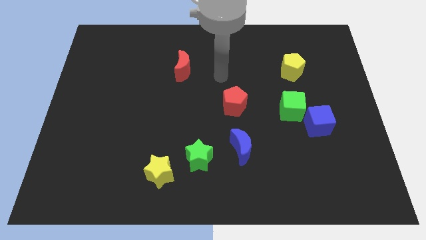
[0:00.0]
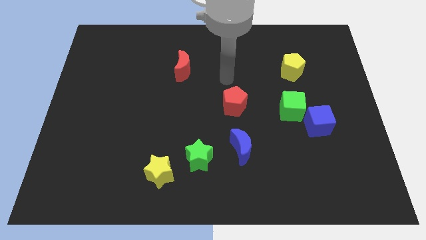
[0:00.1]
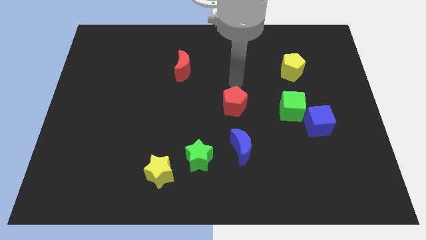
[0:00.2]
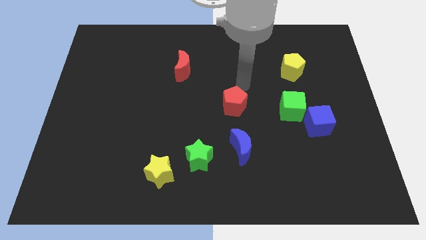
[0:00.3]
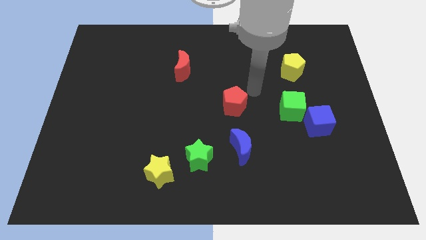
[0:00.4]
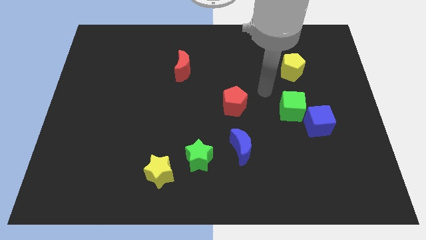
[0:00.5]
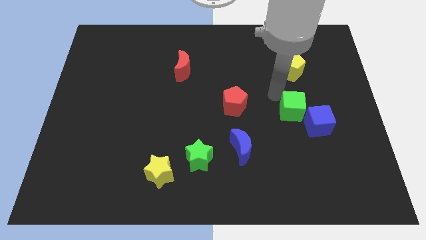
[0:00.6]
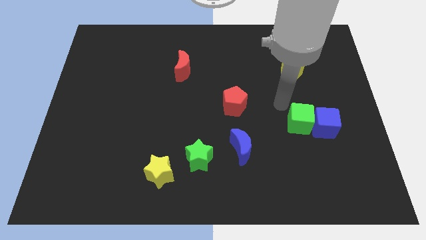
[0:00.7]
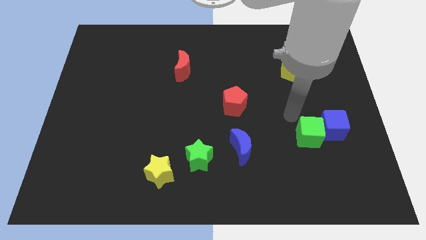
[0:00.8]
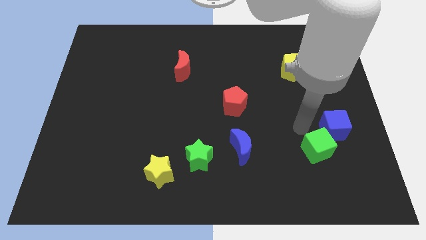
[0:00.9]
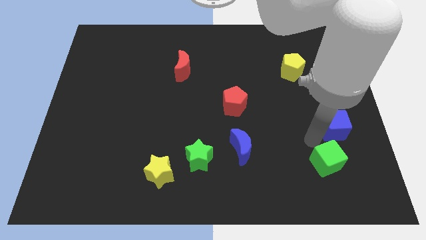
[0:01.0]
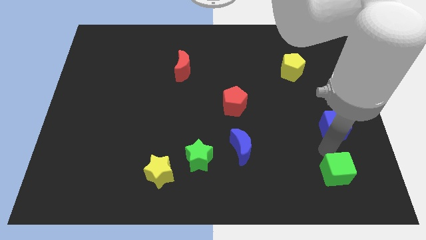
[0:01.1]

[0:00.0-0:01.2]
separate the blue cube from the green cube

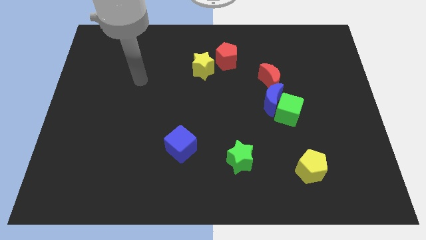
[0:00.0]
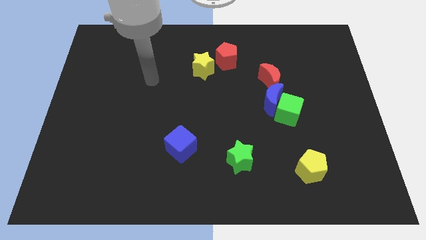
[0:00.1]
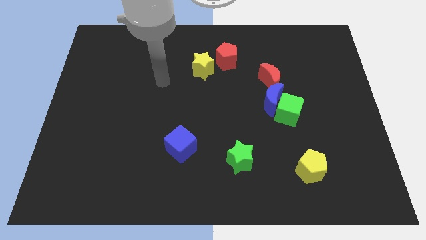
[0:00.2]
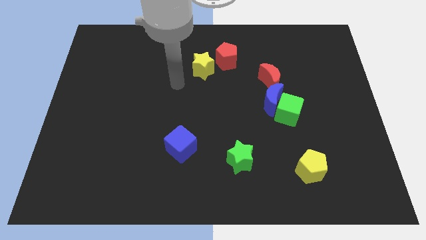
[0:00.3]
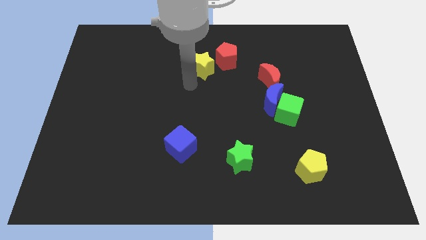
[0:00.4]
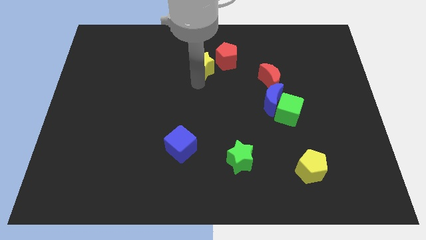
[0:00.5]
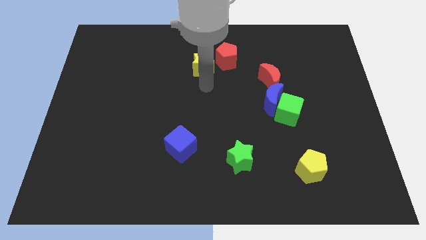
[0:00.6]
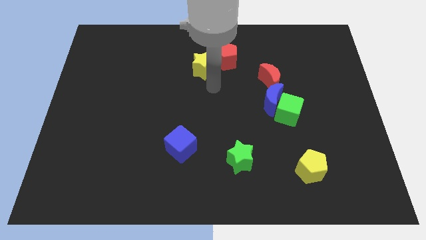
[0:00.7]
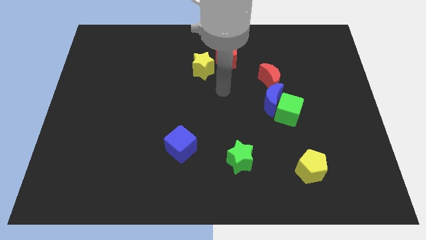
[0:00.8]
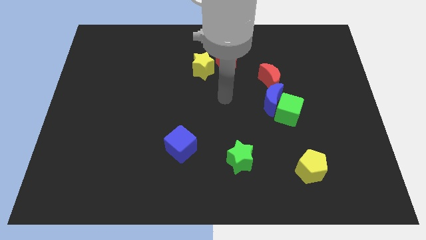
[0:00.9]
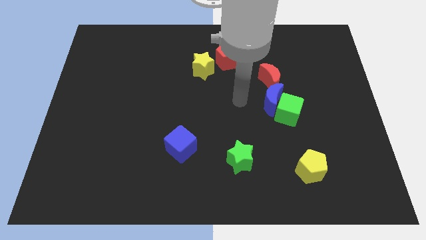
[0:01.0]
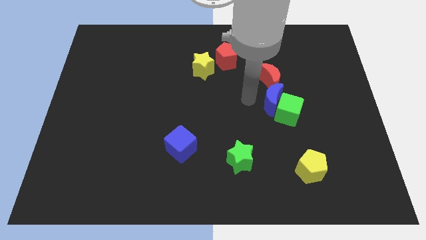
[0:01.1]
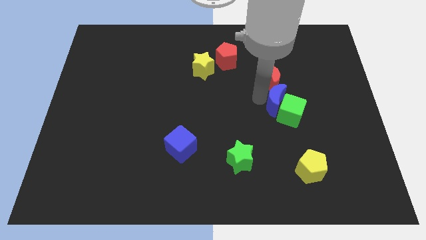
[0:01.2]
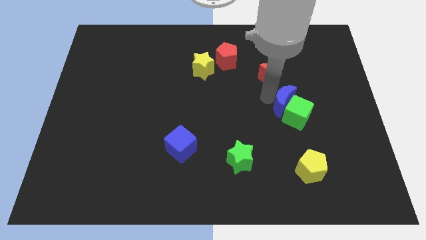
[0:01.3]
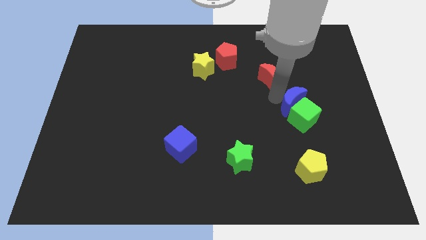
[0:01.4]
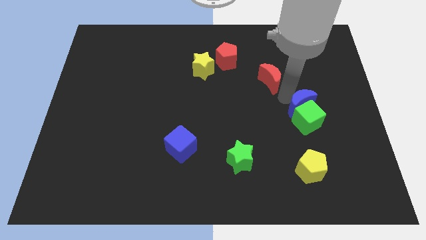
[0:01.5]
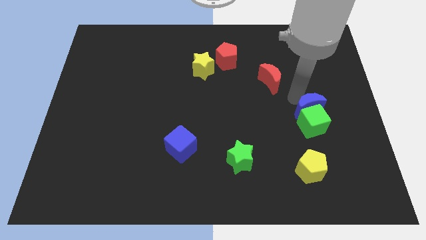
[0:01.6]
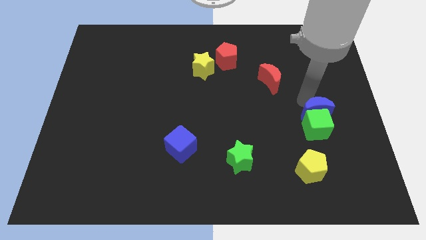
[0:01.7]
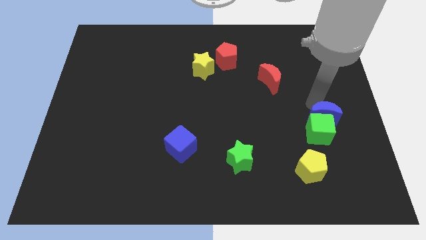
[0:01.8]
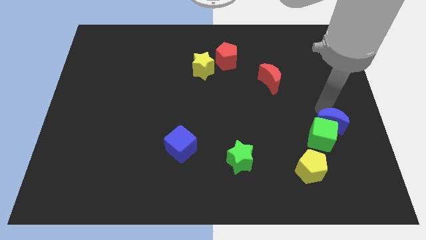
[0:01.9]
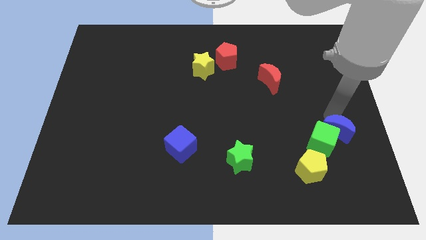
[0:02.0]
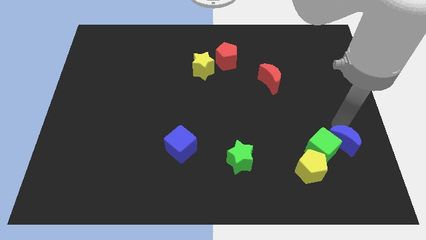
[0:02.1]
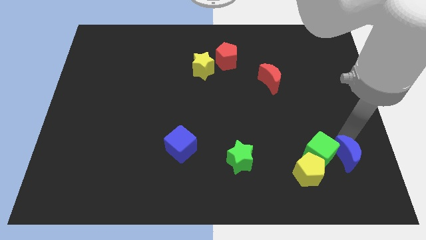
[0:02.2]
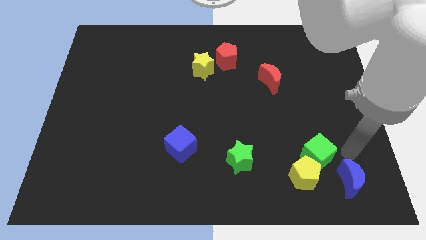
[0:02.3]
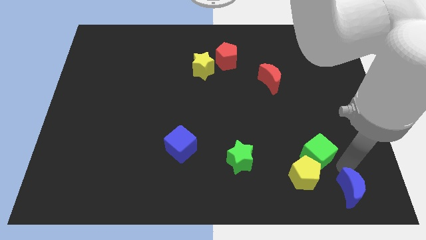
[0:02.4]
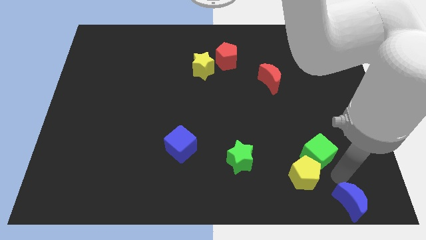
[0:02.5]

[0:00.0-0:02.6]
separate the green cube from the blue moon

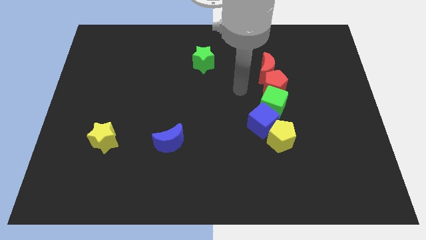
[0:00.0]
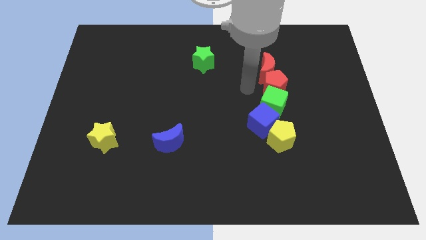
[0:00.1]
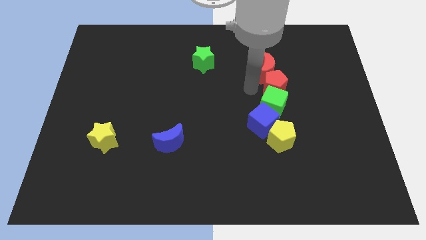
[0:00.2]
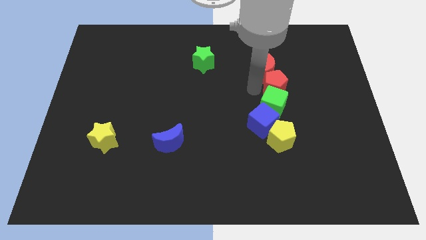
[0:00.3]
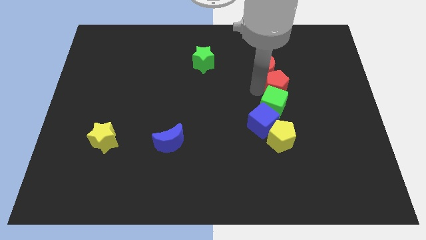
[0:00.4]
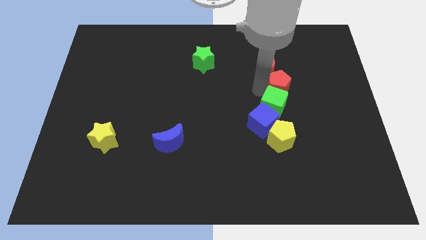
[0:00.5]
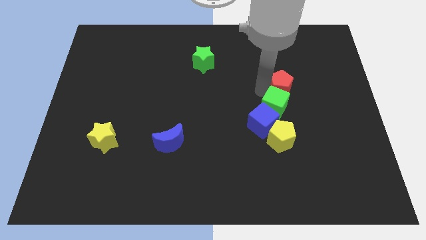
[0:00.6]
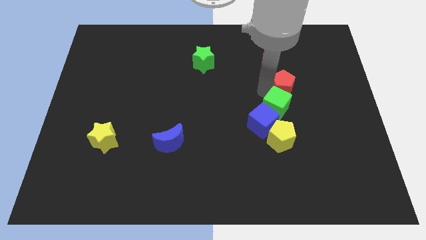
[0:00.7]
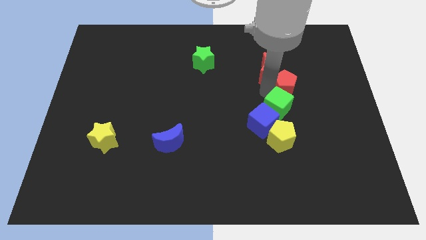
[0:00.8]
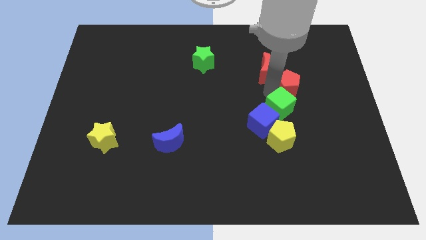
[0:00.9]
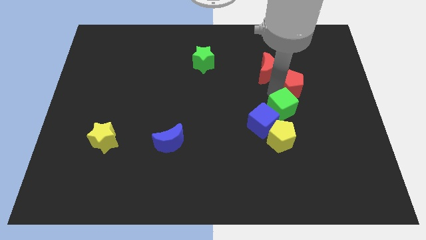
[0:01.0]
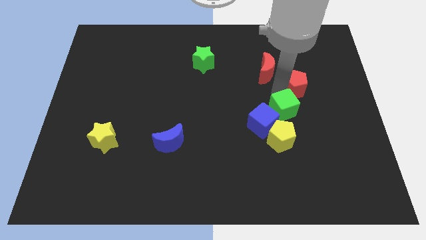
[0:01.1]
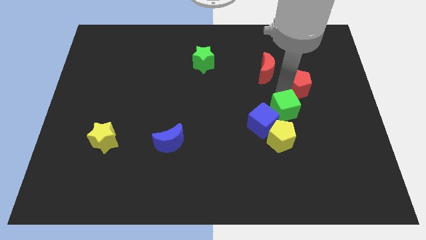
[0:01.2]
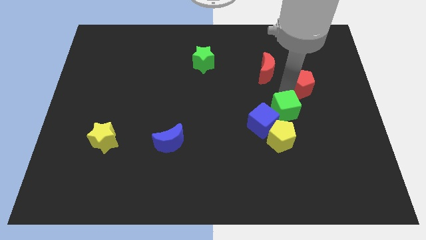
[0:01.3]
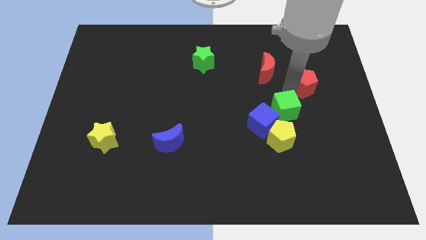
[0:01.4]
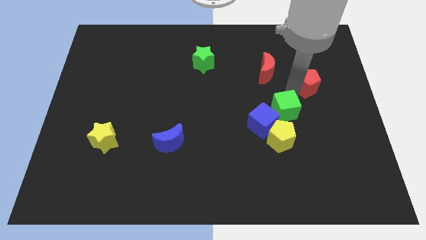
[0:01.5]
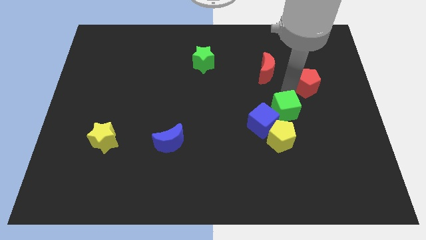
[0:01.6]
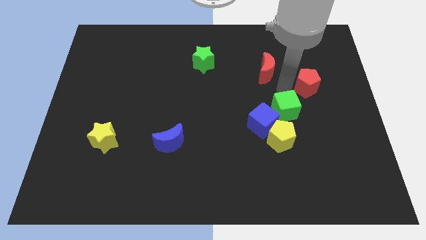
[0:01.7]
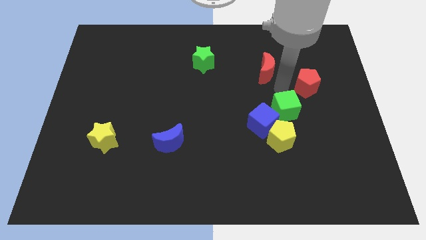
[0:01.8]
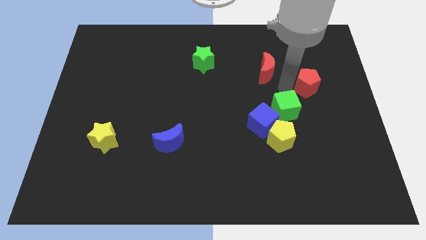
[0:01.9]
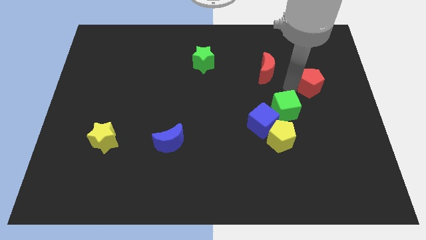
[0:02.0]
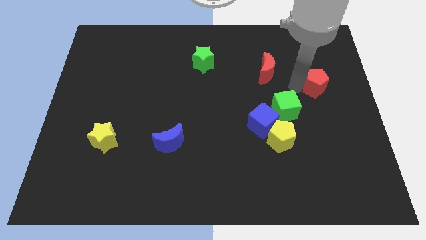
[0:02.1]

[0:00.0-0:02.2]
pull the red pentagon apart from the green cube and red moon

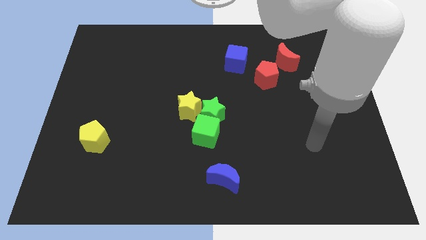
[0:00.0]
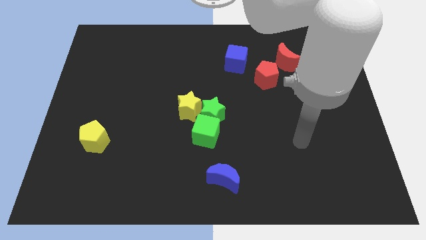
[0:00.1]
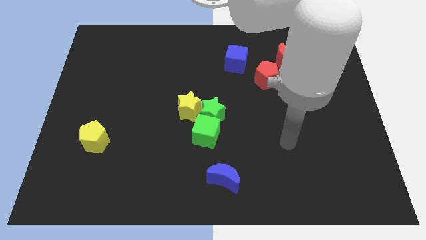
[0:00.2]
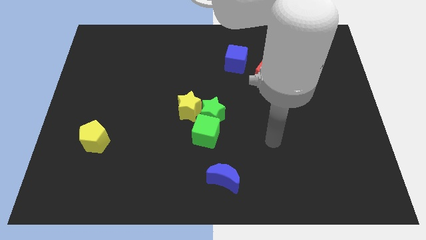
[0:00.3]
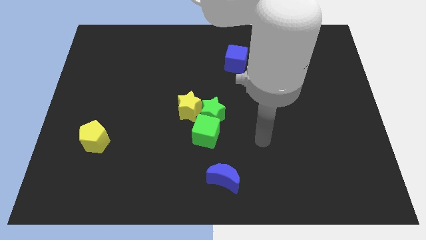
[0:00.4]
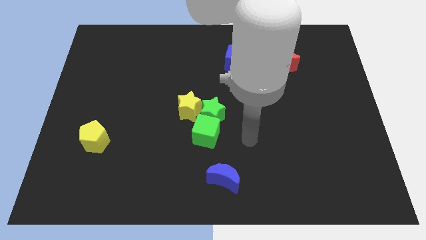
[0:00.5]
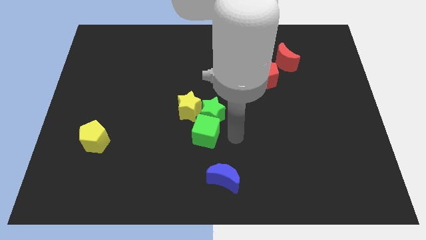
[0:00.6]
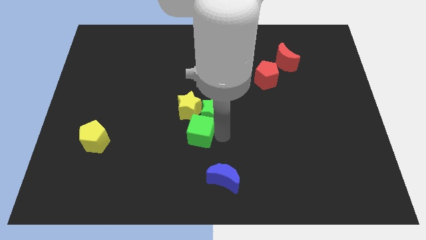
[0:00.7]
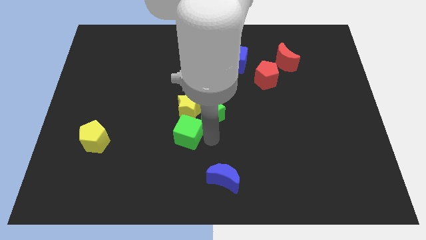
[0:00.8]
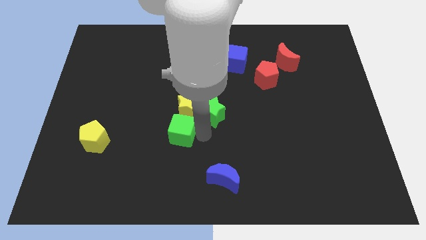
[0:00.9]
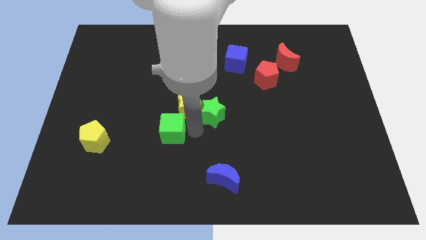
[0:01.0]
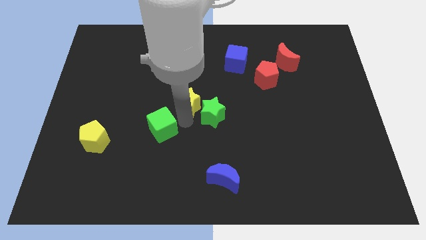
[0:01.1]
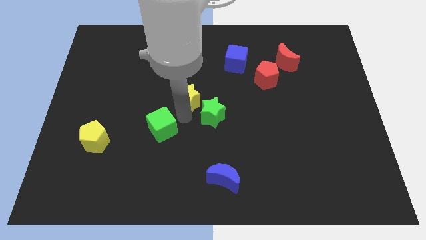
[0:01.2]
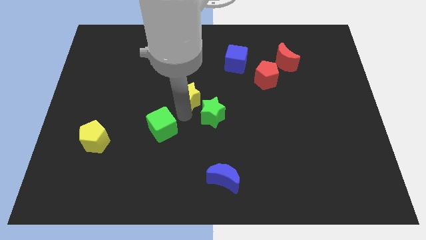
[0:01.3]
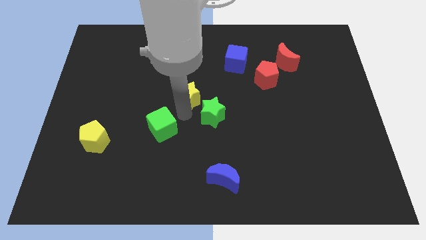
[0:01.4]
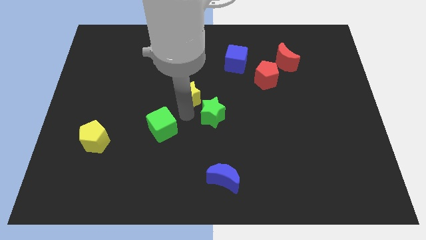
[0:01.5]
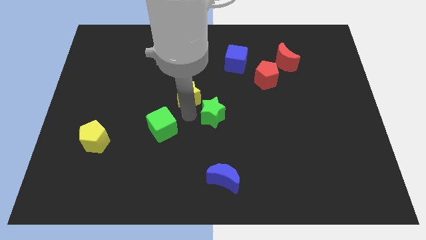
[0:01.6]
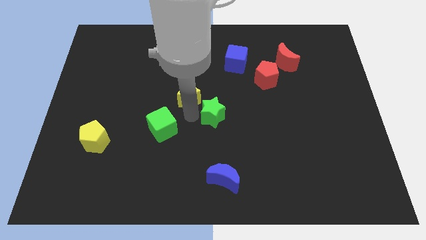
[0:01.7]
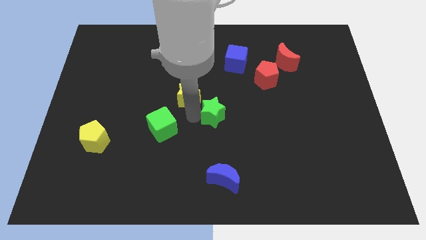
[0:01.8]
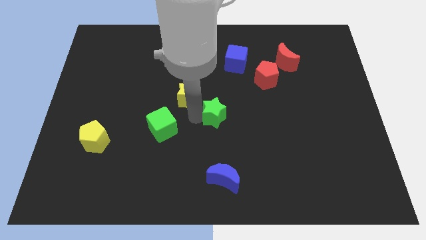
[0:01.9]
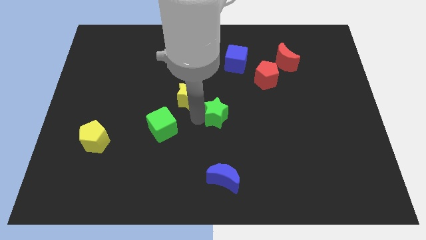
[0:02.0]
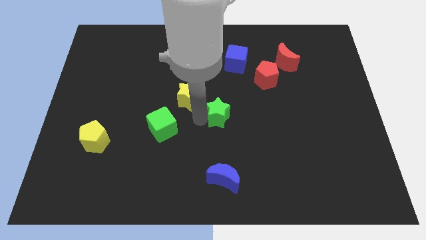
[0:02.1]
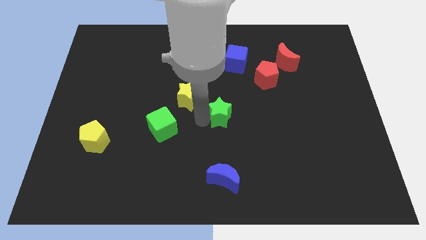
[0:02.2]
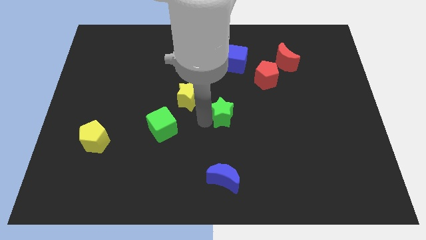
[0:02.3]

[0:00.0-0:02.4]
separate the green star from the yellow star and green cube

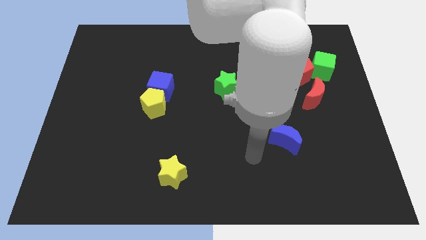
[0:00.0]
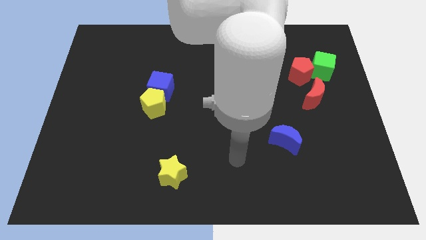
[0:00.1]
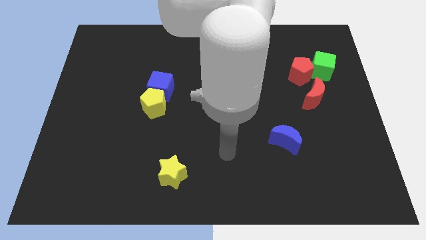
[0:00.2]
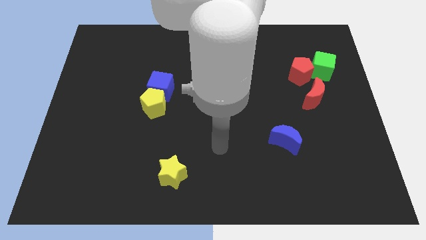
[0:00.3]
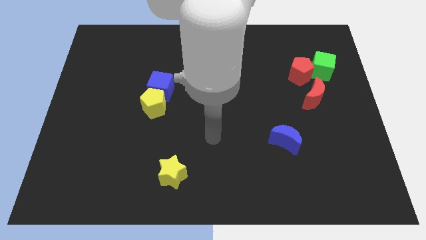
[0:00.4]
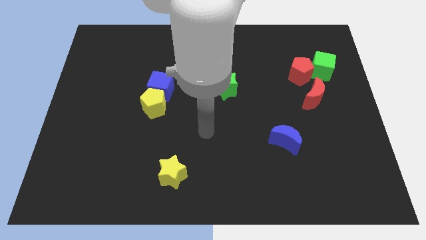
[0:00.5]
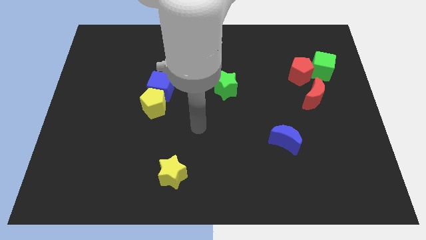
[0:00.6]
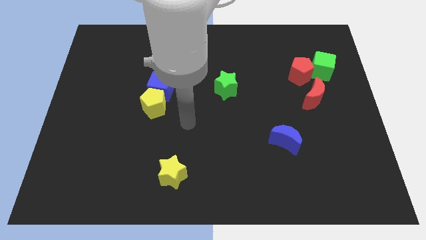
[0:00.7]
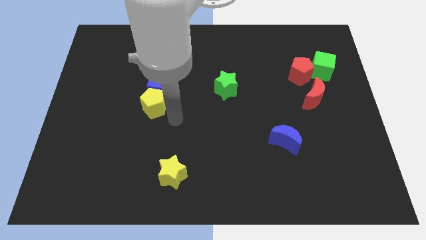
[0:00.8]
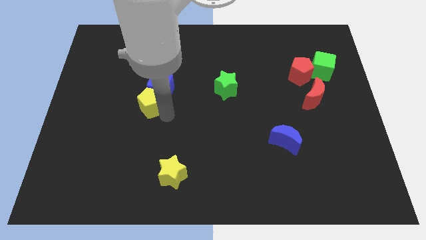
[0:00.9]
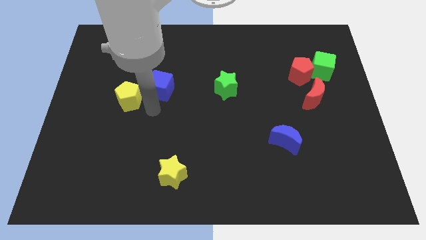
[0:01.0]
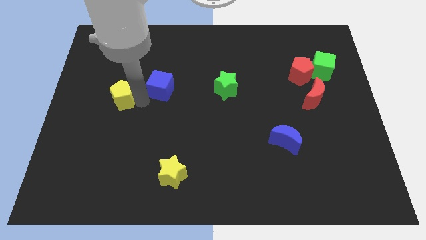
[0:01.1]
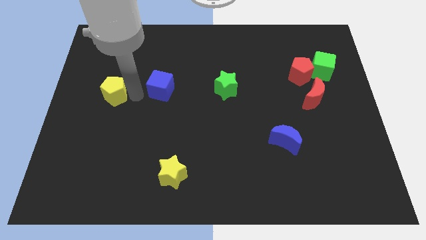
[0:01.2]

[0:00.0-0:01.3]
separate the blue cube from the yellow pentagon
